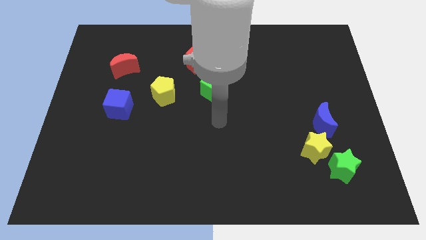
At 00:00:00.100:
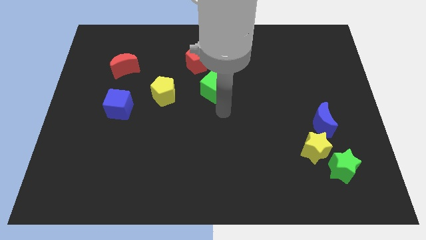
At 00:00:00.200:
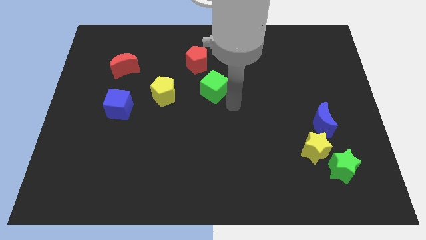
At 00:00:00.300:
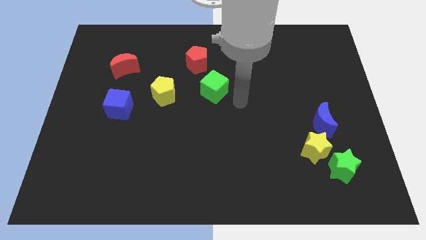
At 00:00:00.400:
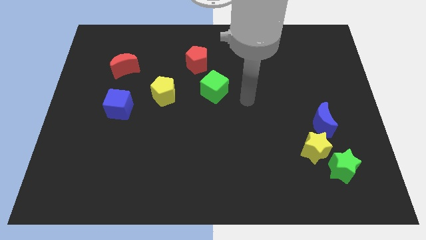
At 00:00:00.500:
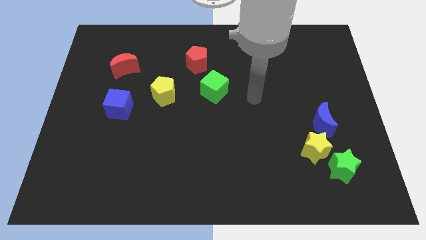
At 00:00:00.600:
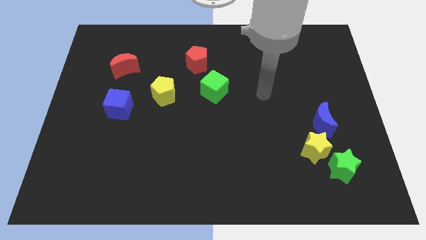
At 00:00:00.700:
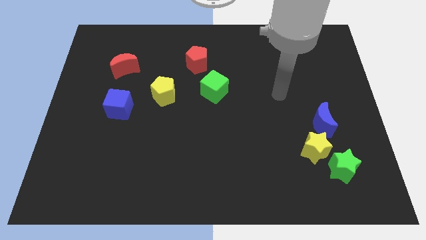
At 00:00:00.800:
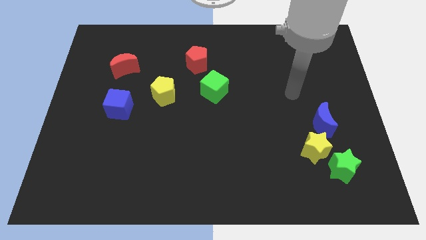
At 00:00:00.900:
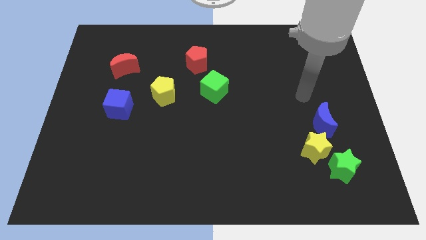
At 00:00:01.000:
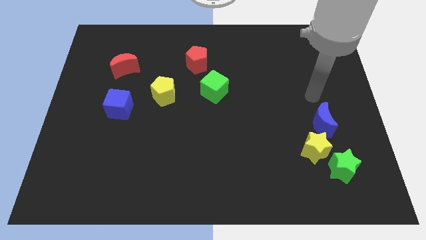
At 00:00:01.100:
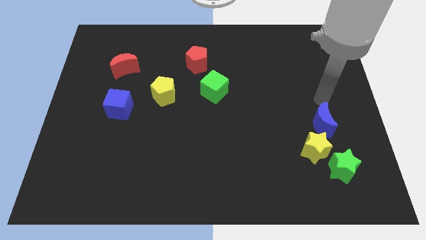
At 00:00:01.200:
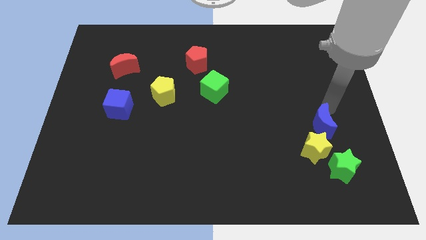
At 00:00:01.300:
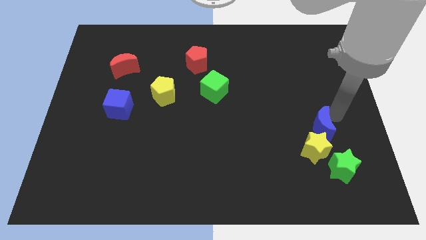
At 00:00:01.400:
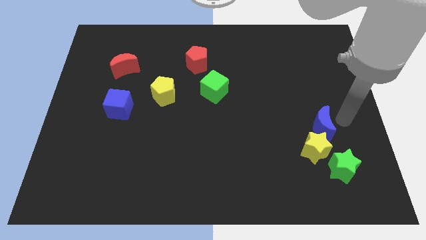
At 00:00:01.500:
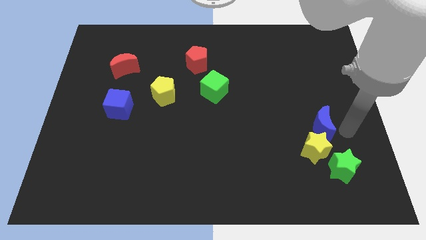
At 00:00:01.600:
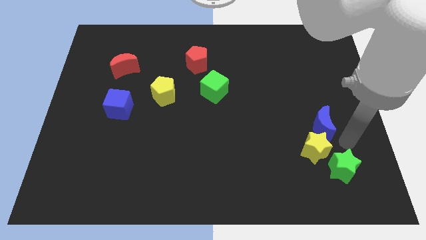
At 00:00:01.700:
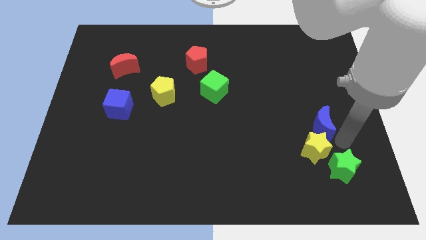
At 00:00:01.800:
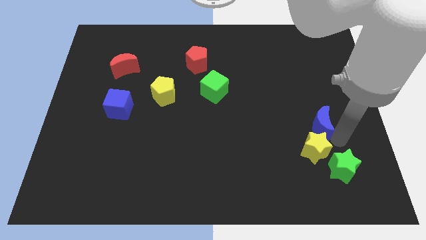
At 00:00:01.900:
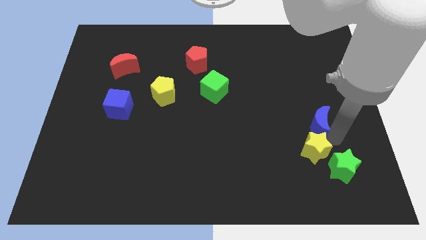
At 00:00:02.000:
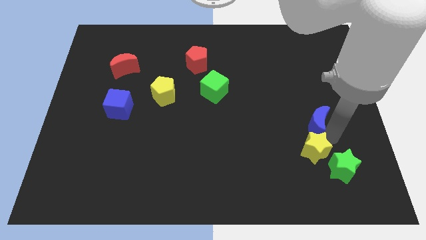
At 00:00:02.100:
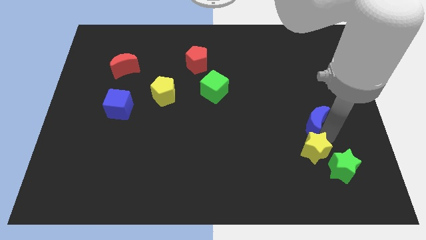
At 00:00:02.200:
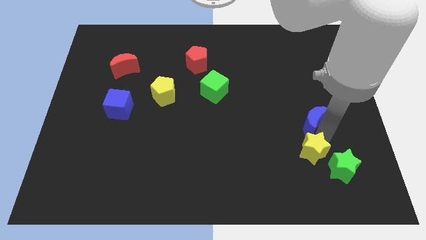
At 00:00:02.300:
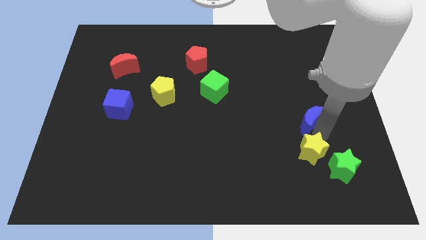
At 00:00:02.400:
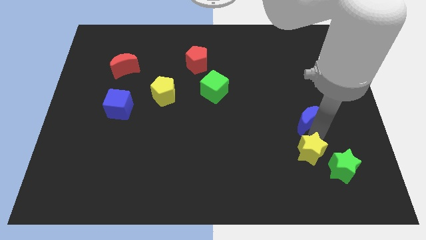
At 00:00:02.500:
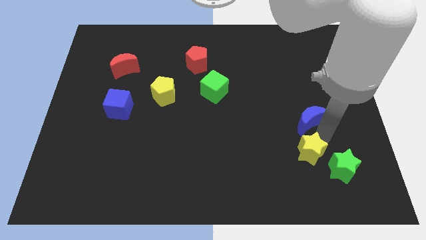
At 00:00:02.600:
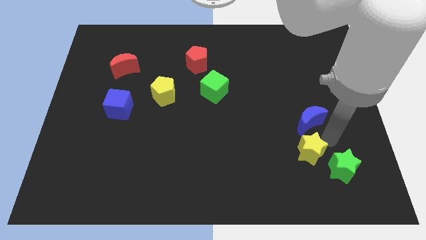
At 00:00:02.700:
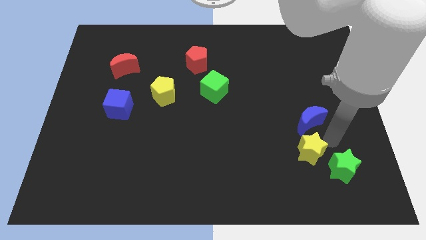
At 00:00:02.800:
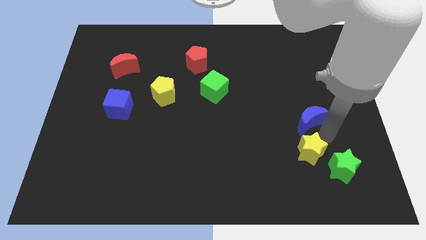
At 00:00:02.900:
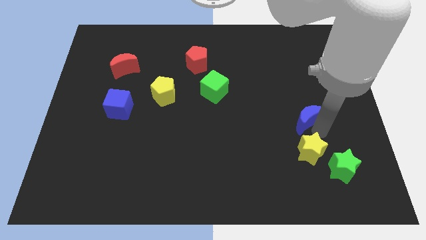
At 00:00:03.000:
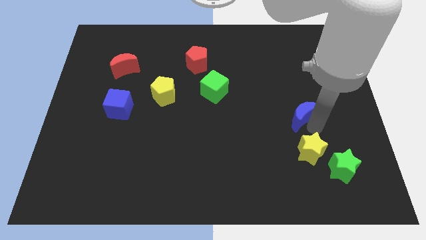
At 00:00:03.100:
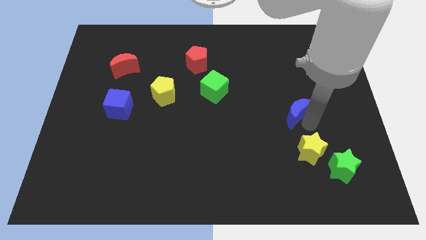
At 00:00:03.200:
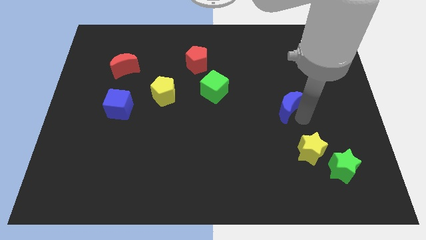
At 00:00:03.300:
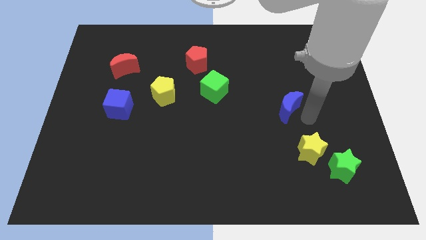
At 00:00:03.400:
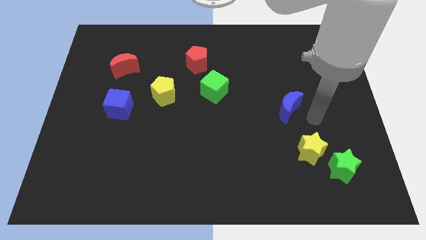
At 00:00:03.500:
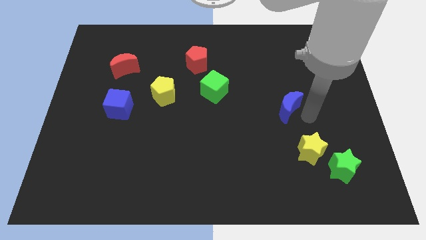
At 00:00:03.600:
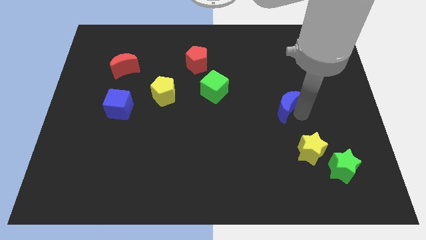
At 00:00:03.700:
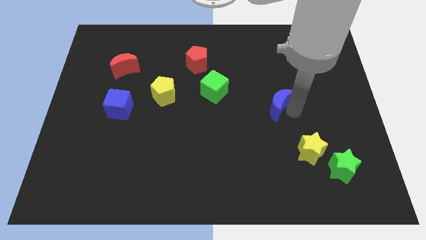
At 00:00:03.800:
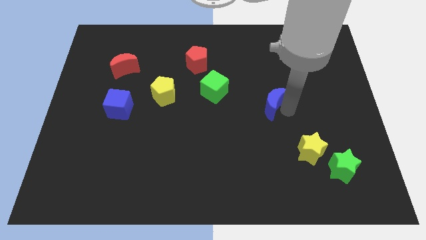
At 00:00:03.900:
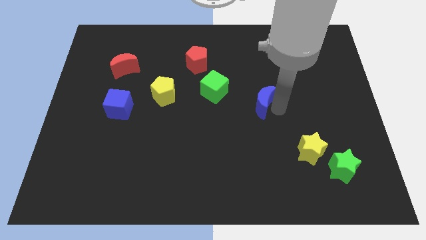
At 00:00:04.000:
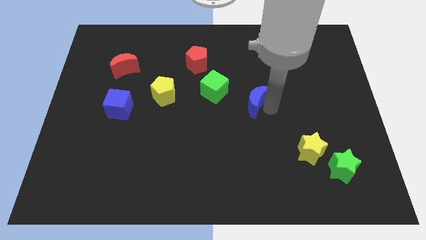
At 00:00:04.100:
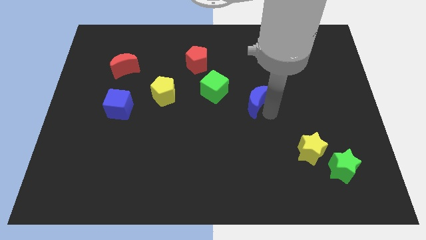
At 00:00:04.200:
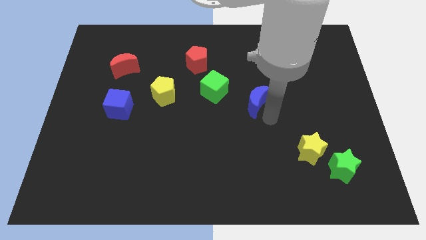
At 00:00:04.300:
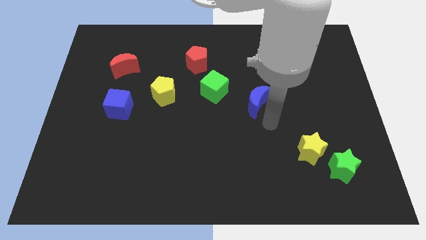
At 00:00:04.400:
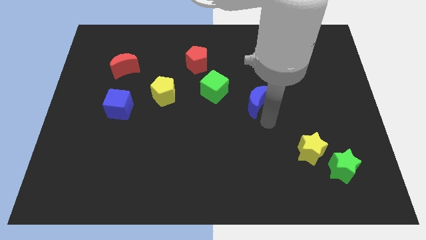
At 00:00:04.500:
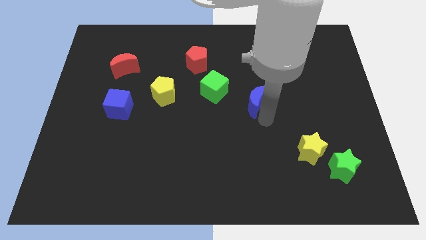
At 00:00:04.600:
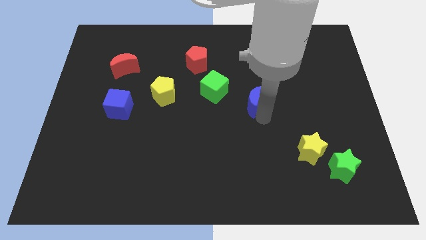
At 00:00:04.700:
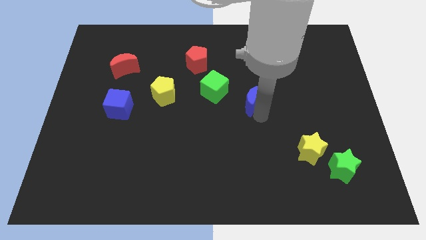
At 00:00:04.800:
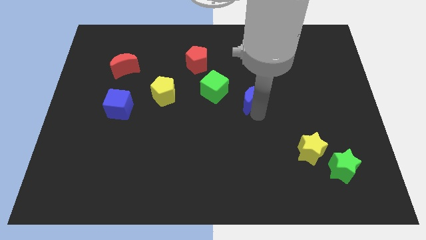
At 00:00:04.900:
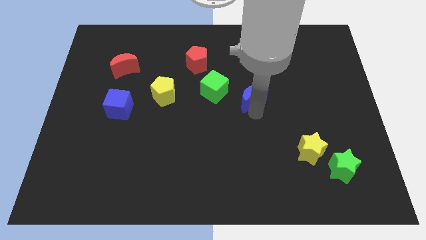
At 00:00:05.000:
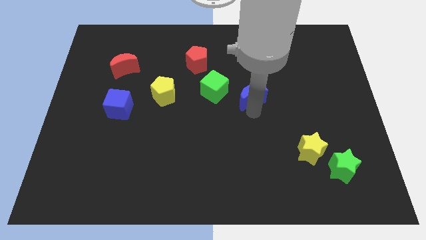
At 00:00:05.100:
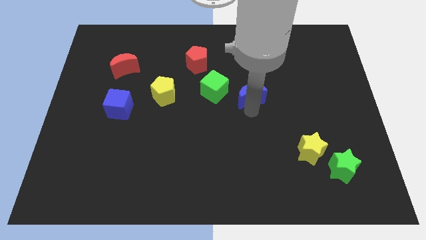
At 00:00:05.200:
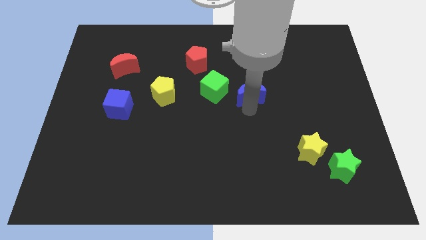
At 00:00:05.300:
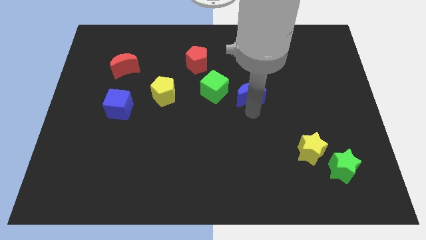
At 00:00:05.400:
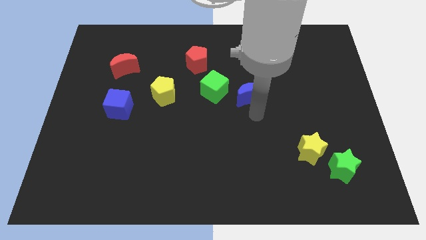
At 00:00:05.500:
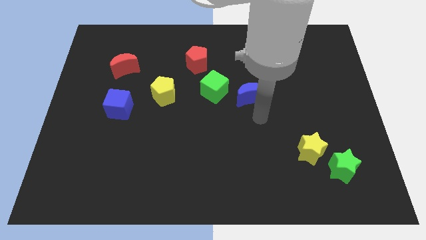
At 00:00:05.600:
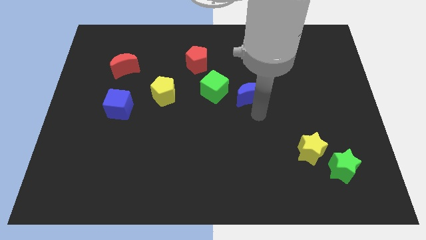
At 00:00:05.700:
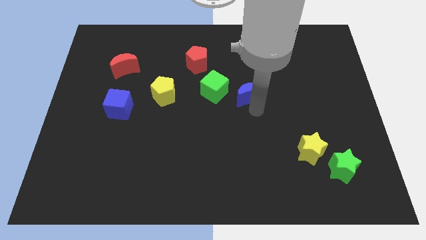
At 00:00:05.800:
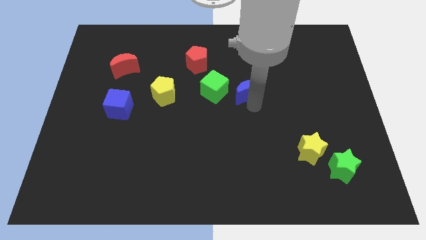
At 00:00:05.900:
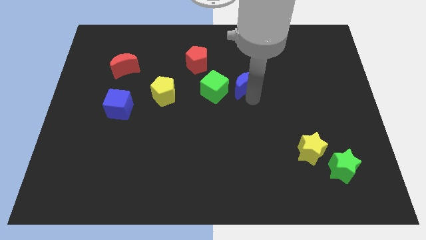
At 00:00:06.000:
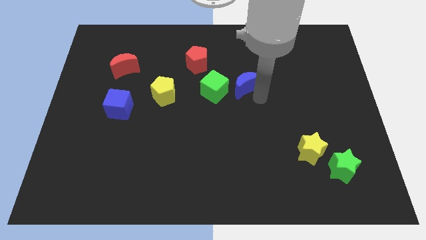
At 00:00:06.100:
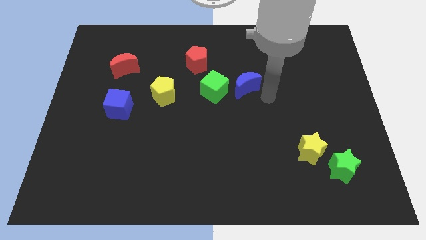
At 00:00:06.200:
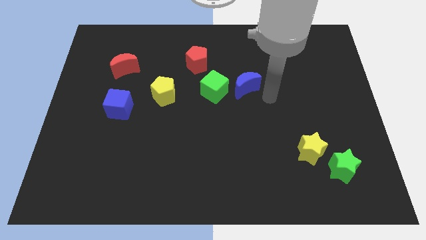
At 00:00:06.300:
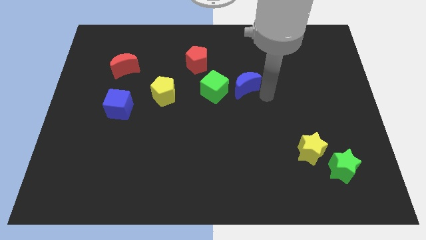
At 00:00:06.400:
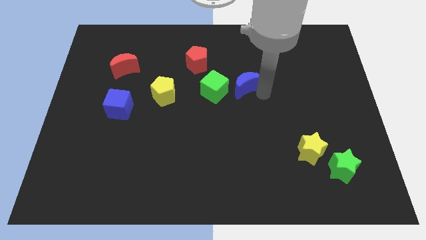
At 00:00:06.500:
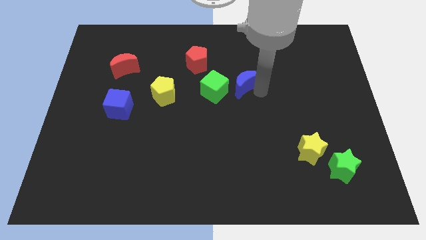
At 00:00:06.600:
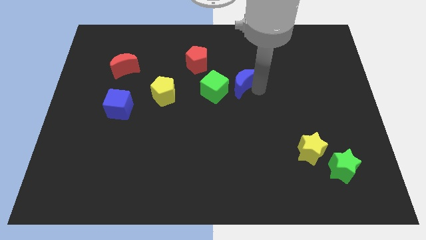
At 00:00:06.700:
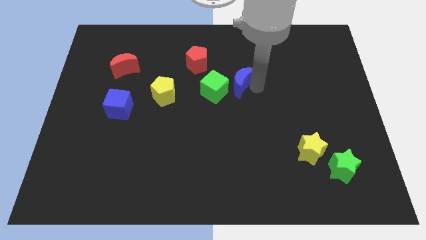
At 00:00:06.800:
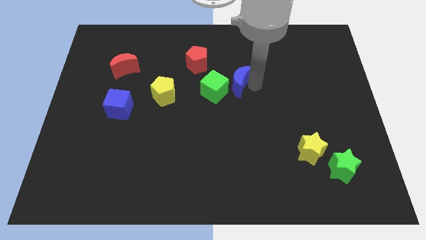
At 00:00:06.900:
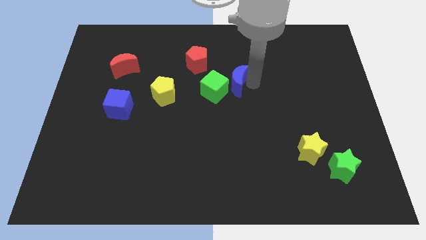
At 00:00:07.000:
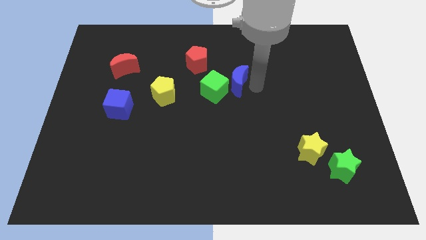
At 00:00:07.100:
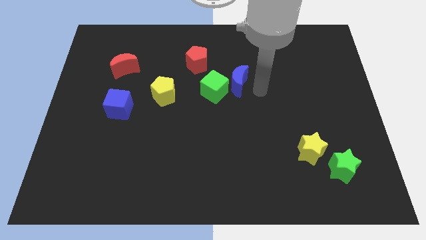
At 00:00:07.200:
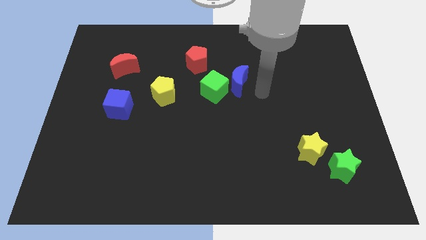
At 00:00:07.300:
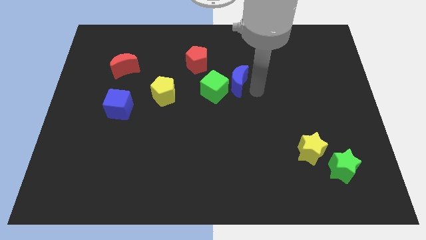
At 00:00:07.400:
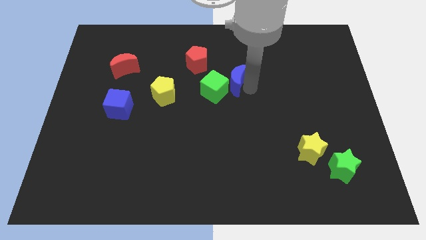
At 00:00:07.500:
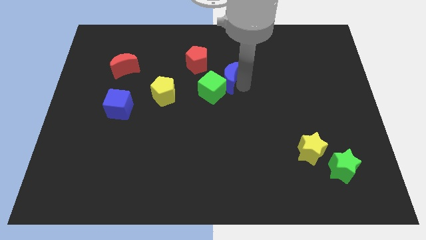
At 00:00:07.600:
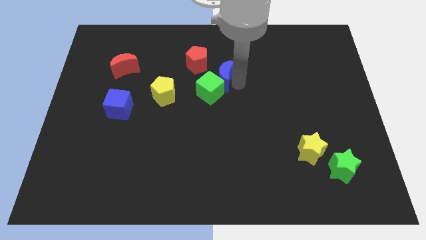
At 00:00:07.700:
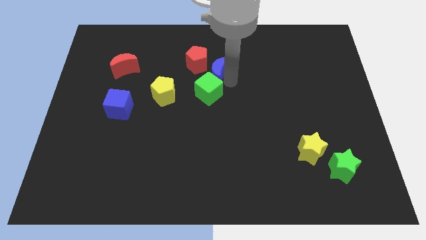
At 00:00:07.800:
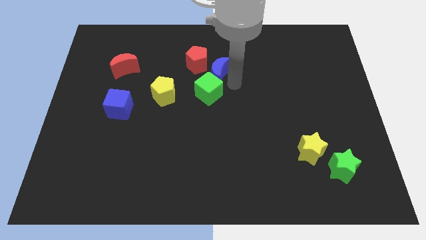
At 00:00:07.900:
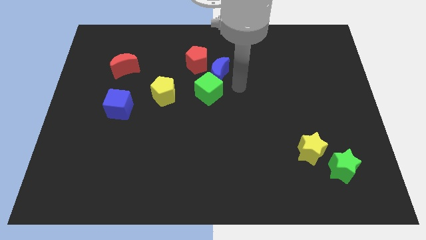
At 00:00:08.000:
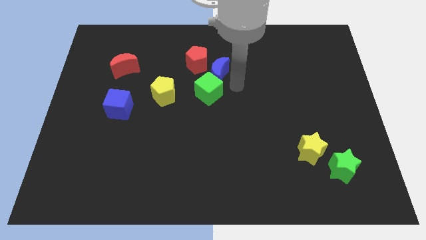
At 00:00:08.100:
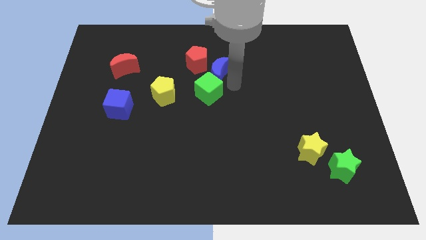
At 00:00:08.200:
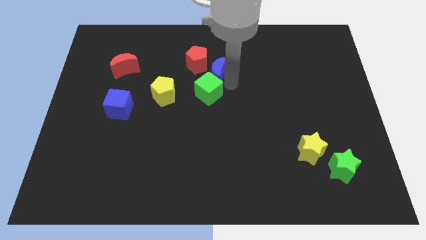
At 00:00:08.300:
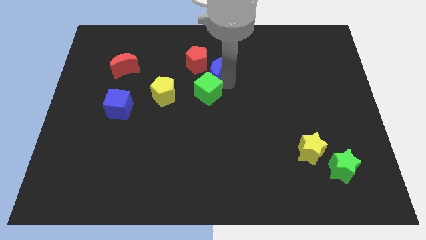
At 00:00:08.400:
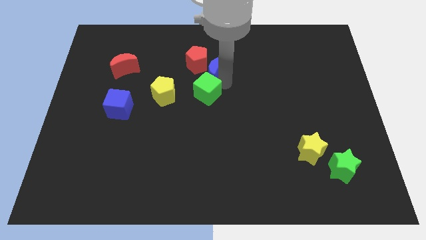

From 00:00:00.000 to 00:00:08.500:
push the blue moon towards the red pentagon
